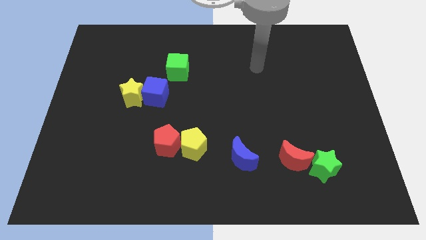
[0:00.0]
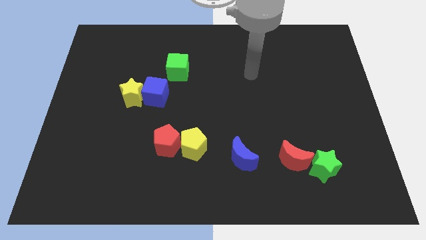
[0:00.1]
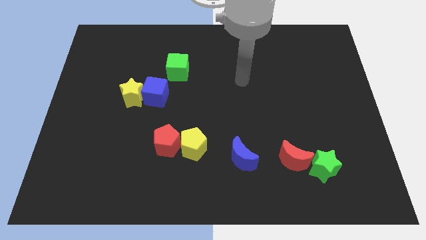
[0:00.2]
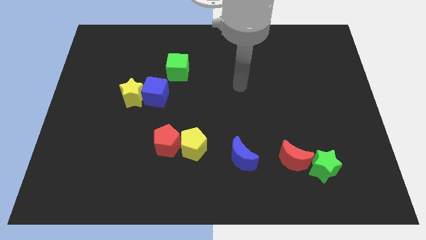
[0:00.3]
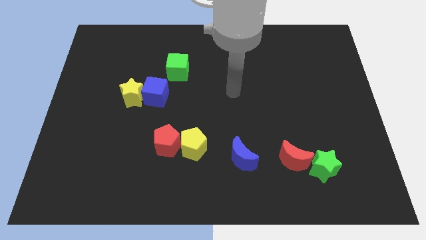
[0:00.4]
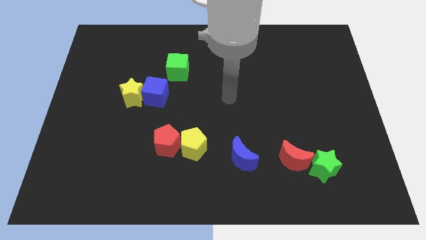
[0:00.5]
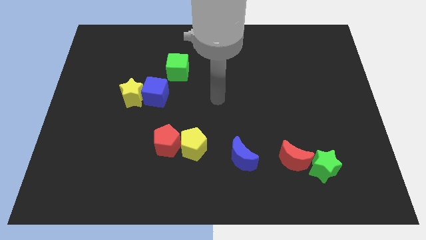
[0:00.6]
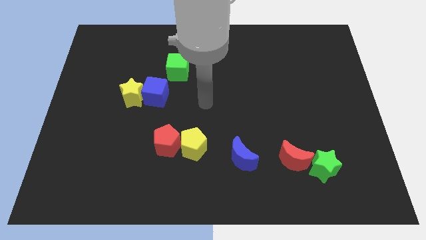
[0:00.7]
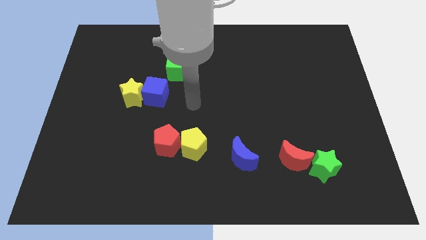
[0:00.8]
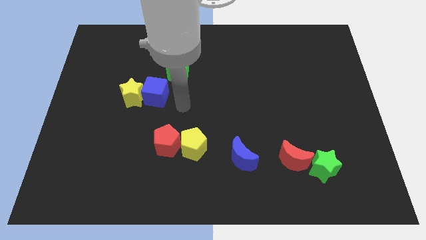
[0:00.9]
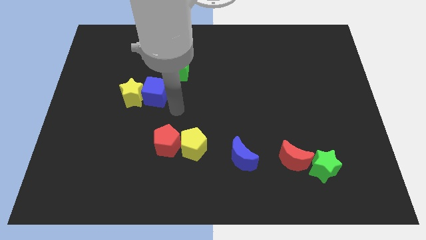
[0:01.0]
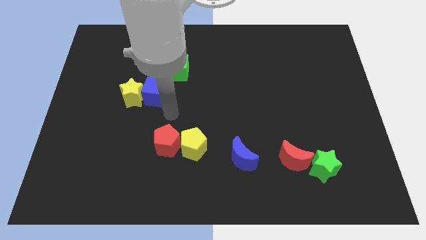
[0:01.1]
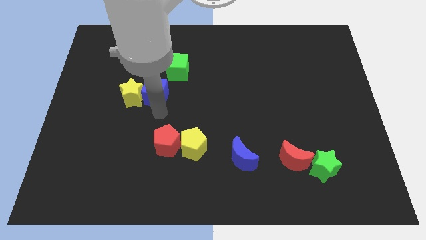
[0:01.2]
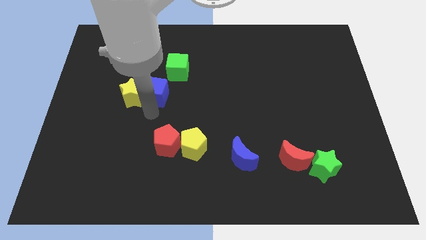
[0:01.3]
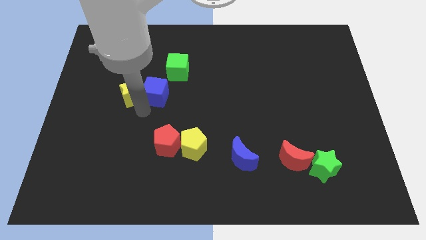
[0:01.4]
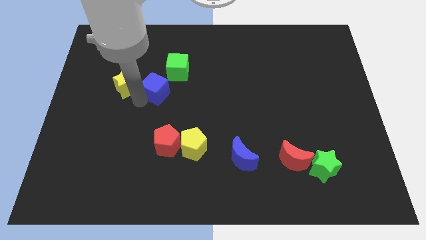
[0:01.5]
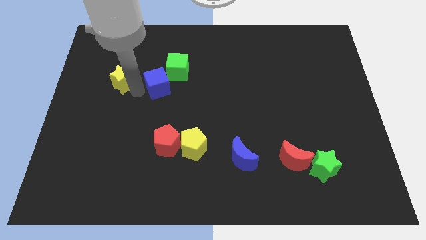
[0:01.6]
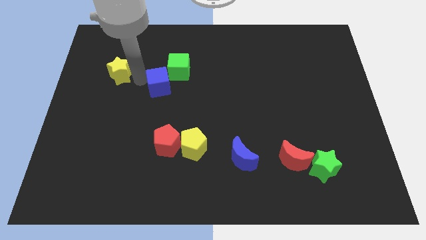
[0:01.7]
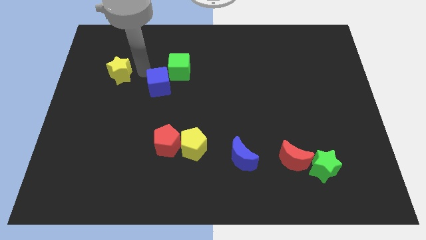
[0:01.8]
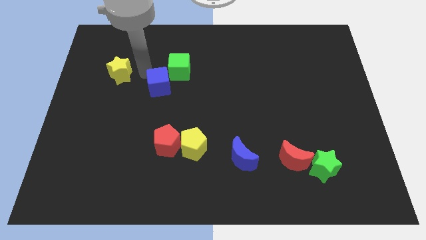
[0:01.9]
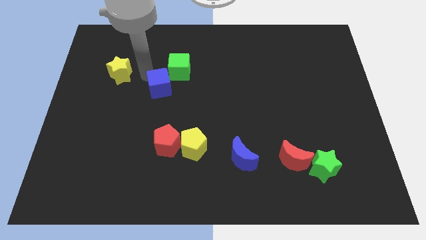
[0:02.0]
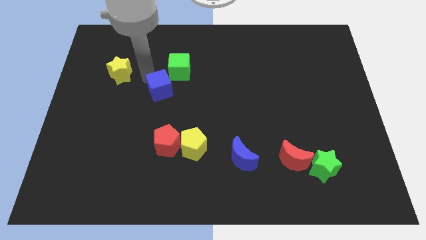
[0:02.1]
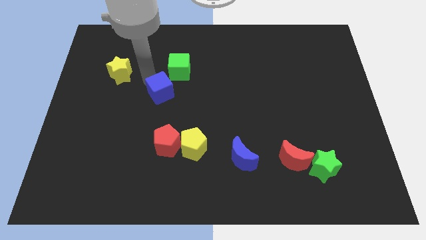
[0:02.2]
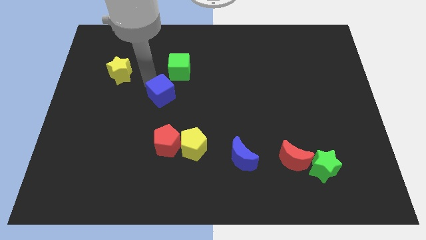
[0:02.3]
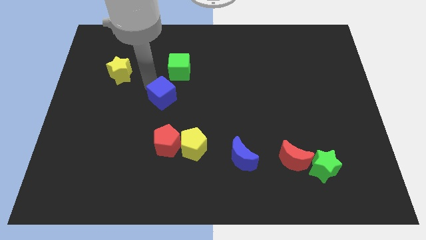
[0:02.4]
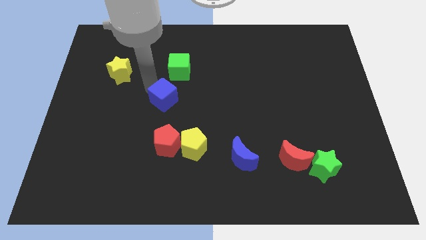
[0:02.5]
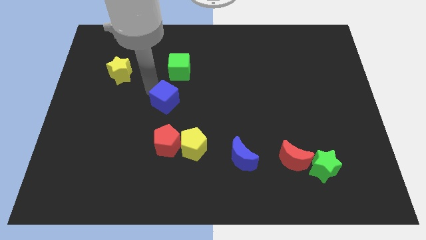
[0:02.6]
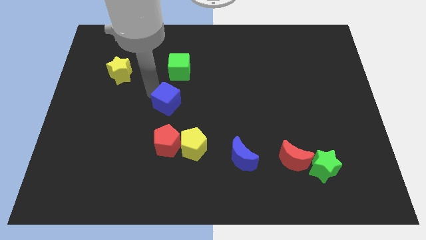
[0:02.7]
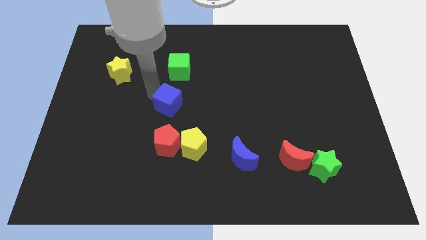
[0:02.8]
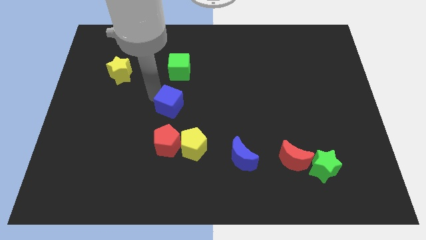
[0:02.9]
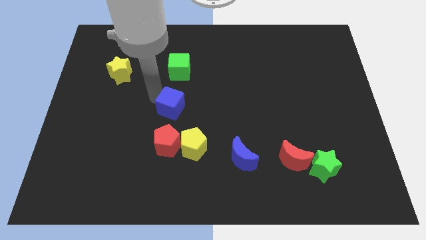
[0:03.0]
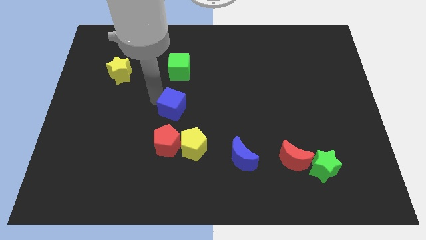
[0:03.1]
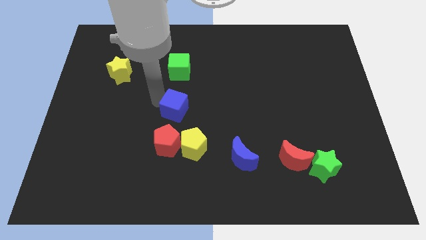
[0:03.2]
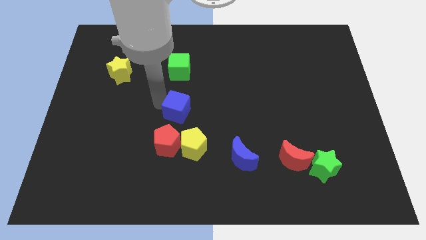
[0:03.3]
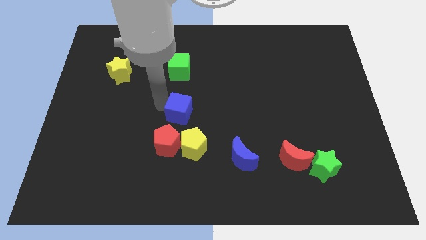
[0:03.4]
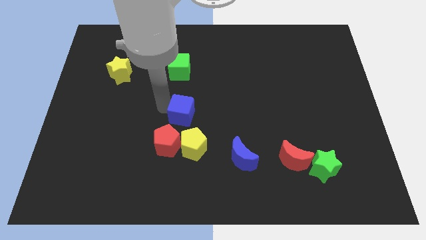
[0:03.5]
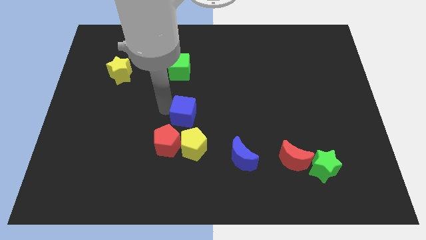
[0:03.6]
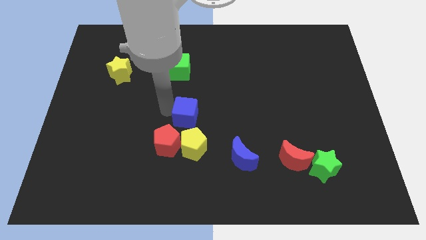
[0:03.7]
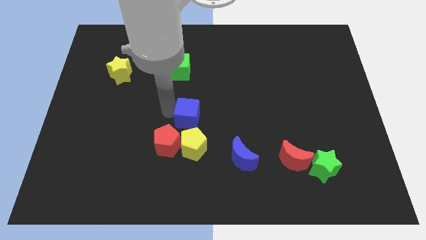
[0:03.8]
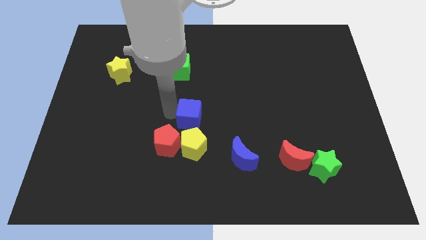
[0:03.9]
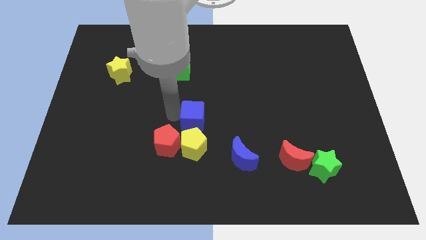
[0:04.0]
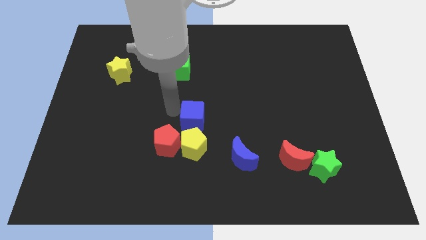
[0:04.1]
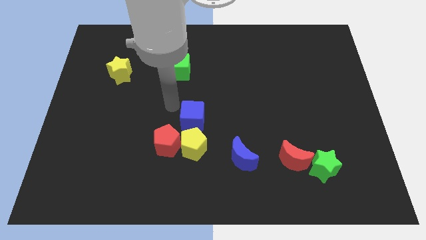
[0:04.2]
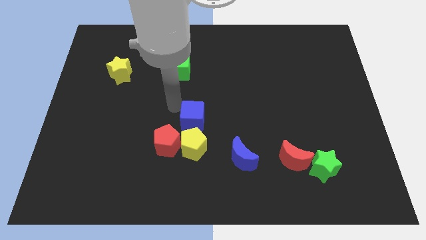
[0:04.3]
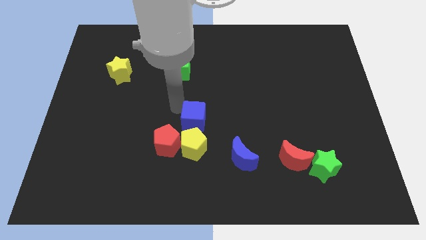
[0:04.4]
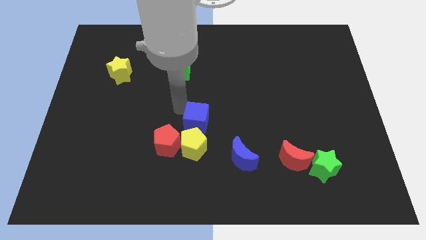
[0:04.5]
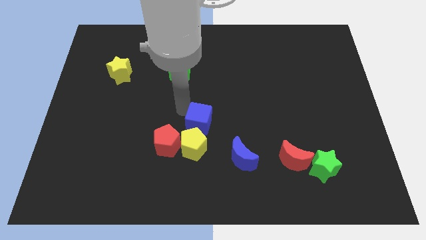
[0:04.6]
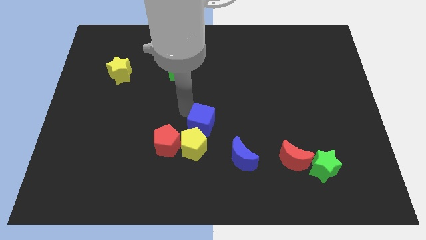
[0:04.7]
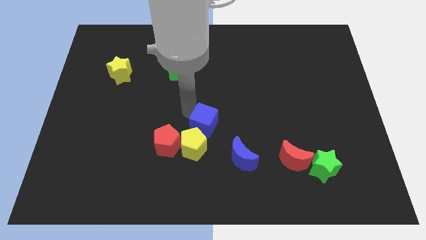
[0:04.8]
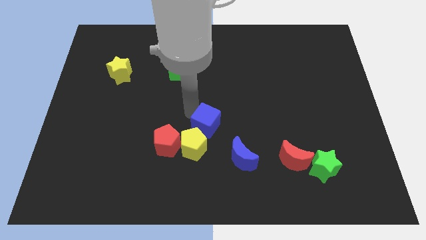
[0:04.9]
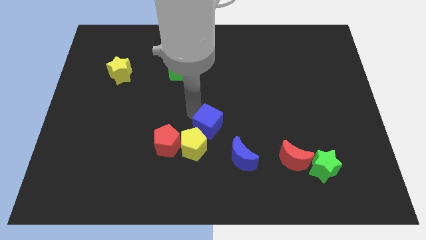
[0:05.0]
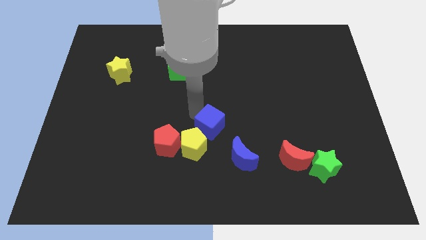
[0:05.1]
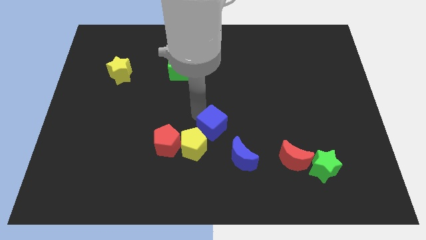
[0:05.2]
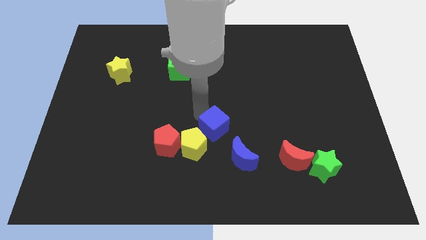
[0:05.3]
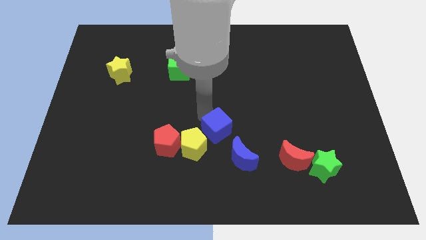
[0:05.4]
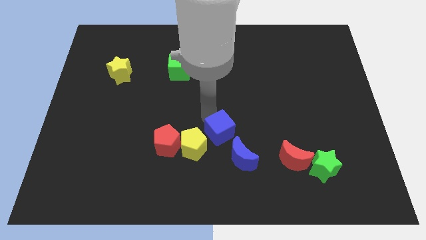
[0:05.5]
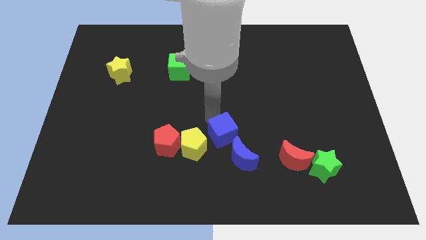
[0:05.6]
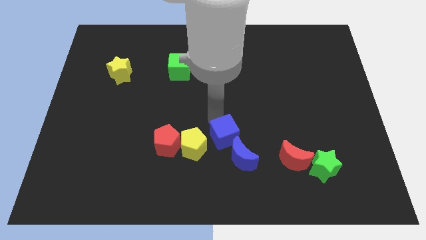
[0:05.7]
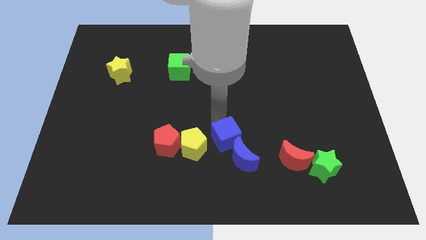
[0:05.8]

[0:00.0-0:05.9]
push the blue cube diagonally downwards and right

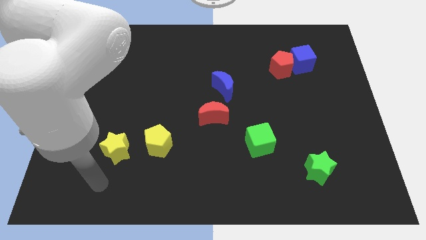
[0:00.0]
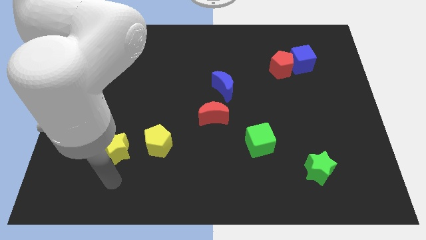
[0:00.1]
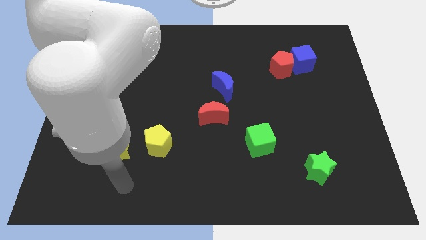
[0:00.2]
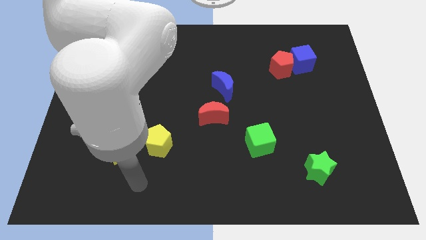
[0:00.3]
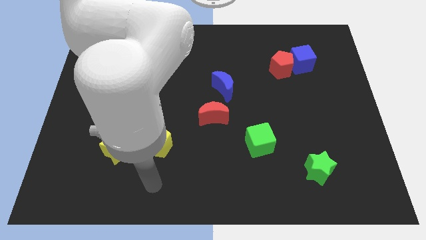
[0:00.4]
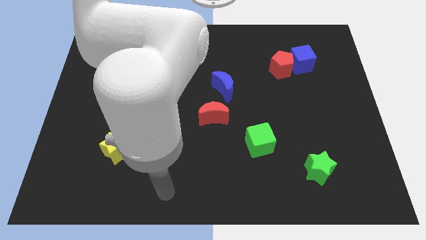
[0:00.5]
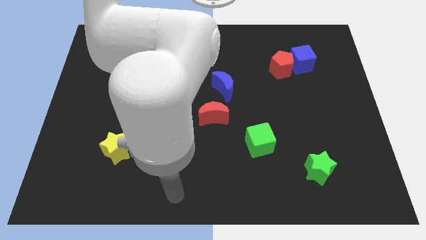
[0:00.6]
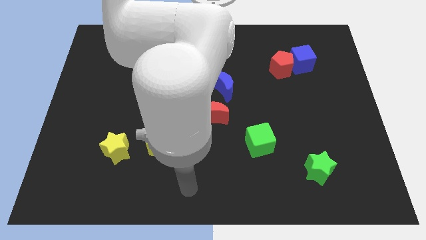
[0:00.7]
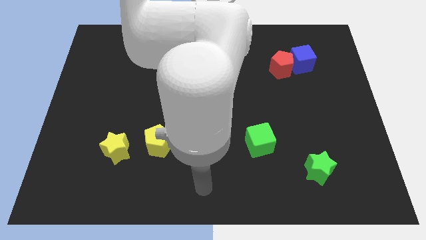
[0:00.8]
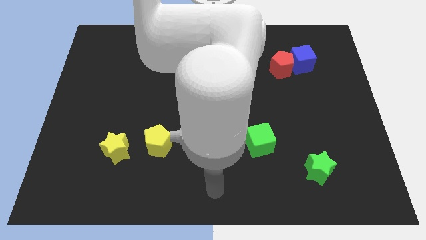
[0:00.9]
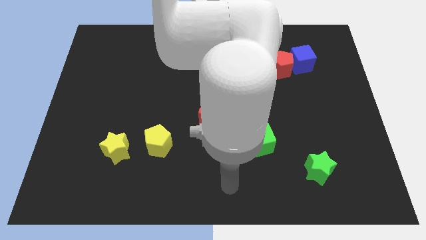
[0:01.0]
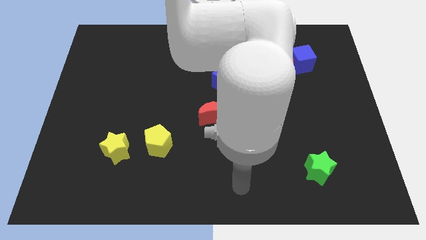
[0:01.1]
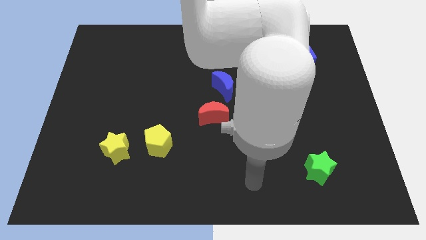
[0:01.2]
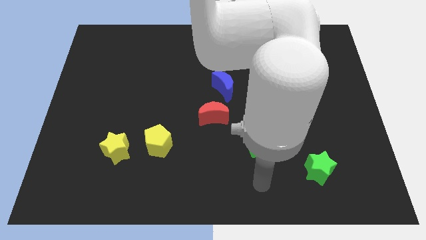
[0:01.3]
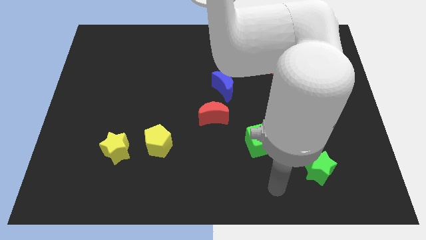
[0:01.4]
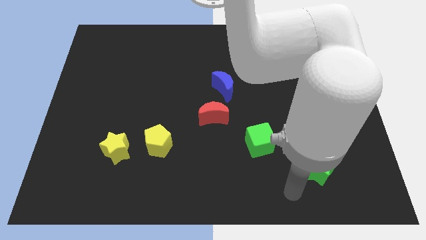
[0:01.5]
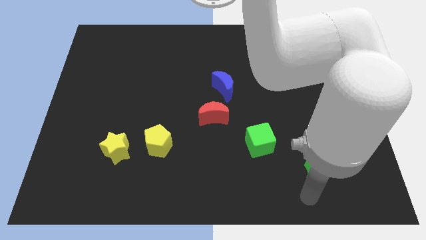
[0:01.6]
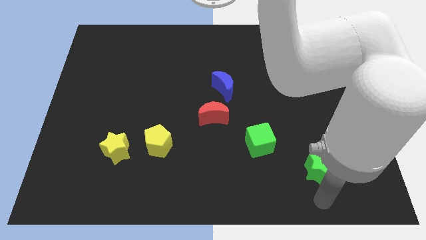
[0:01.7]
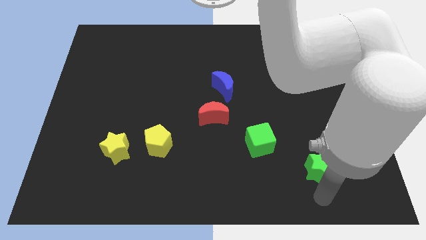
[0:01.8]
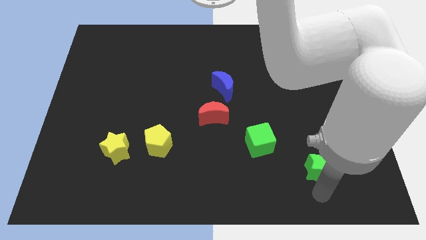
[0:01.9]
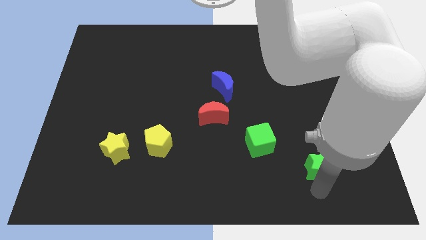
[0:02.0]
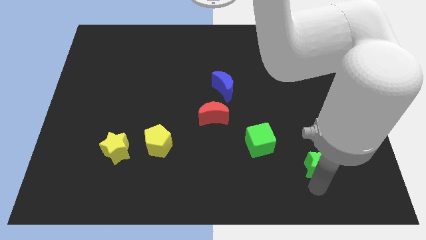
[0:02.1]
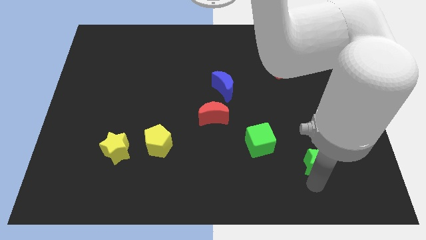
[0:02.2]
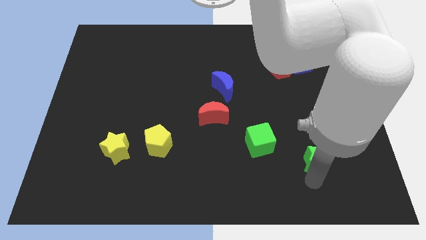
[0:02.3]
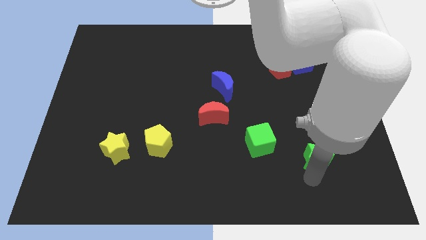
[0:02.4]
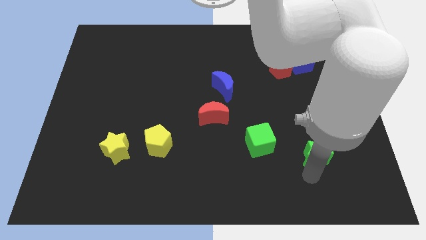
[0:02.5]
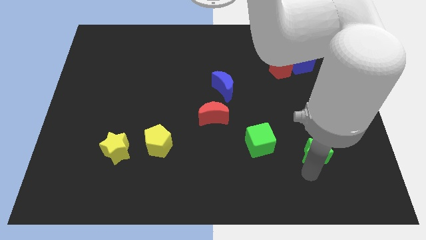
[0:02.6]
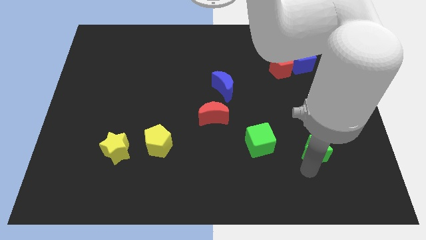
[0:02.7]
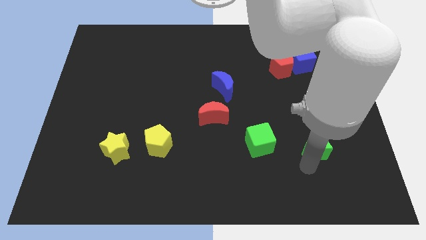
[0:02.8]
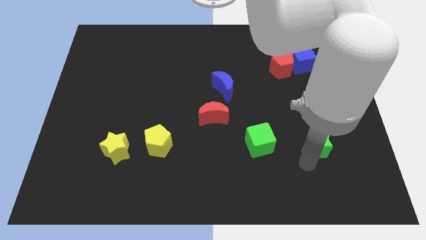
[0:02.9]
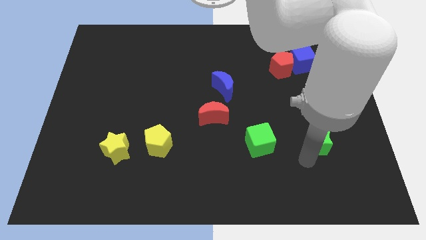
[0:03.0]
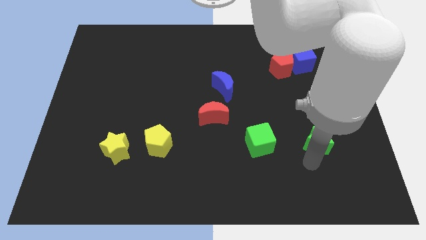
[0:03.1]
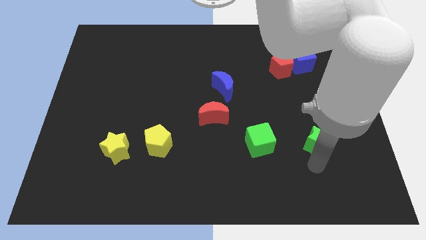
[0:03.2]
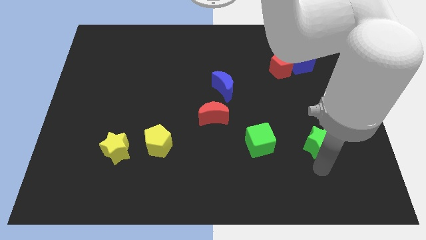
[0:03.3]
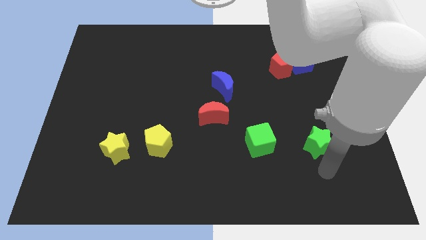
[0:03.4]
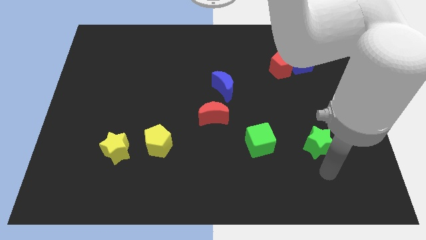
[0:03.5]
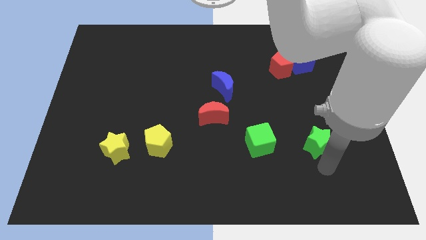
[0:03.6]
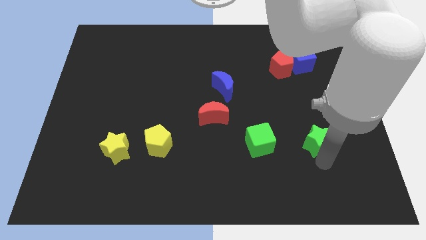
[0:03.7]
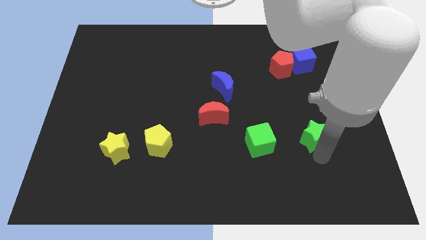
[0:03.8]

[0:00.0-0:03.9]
slide the green star upwards a little
